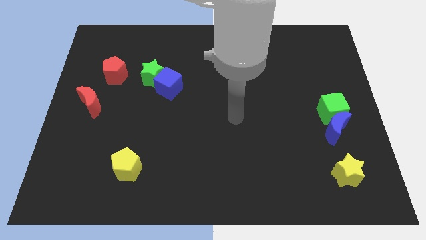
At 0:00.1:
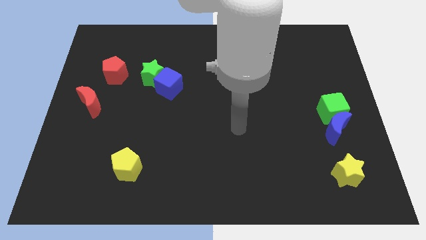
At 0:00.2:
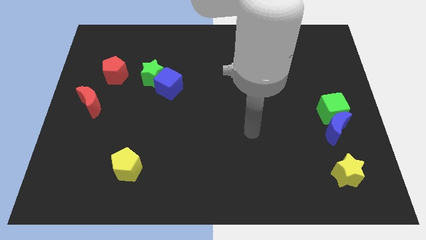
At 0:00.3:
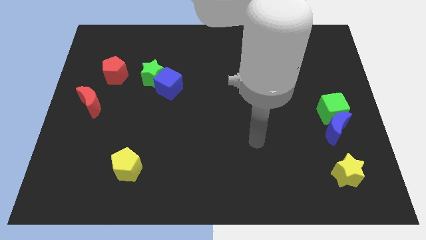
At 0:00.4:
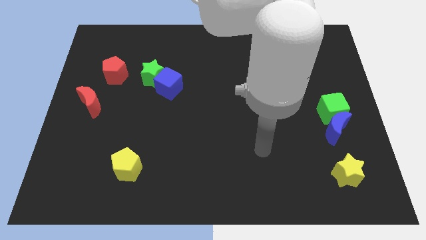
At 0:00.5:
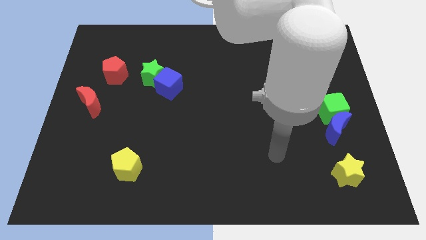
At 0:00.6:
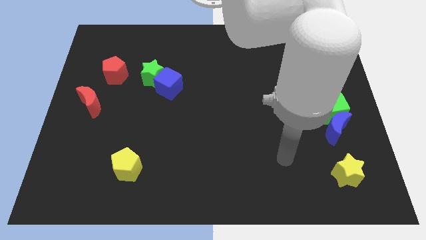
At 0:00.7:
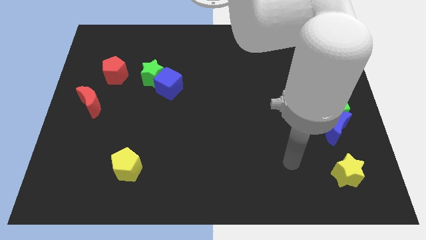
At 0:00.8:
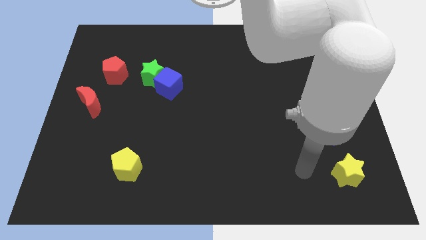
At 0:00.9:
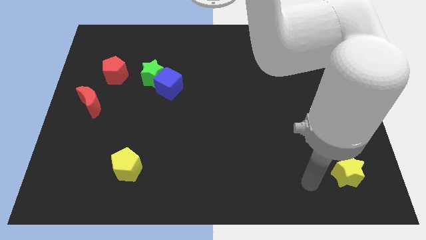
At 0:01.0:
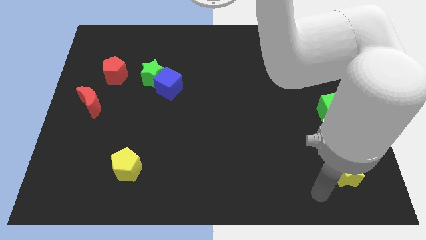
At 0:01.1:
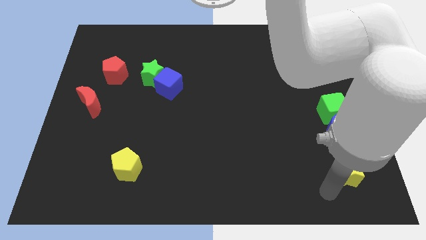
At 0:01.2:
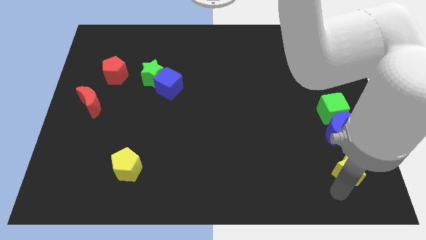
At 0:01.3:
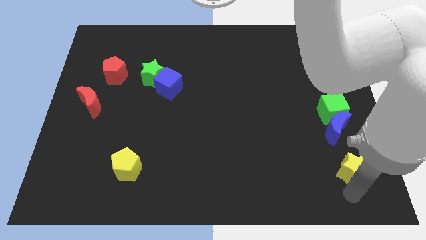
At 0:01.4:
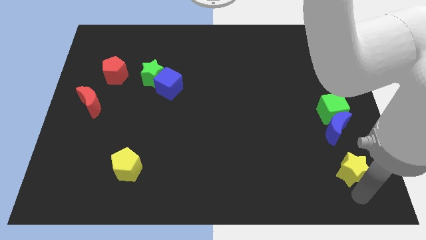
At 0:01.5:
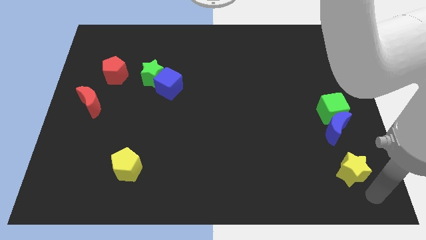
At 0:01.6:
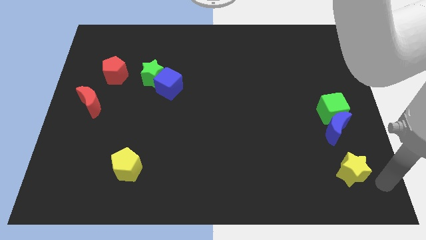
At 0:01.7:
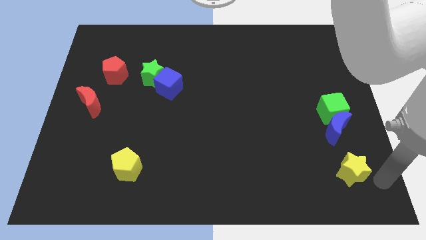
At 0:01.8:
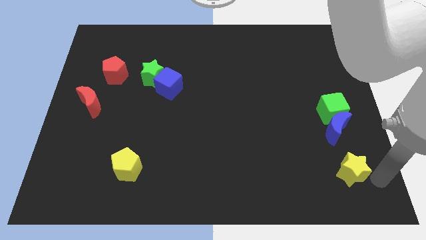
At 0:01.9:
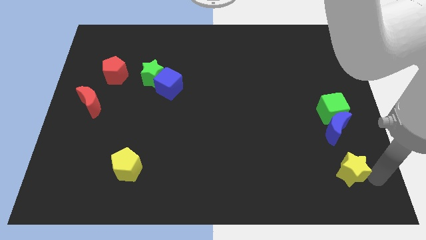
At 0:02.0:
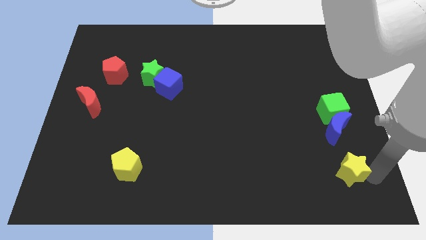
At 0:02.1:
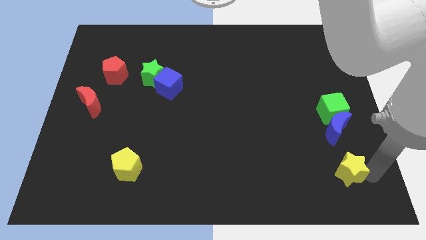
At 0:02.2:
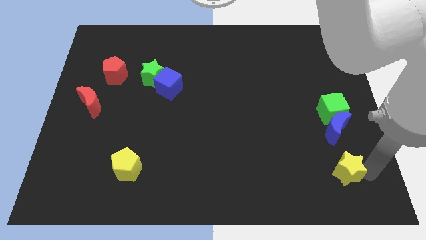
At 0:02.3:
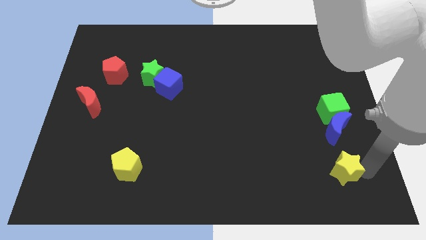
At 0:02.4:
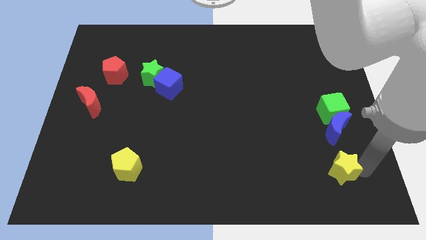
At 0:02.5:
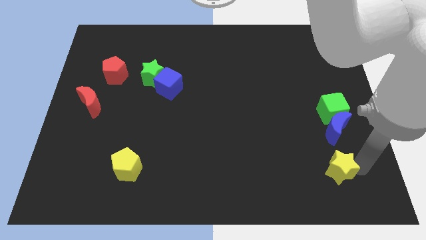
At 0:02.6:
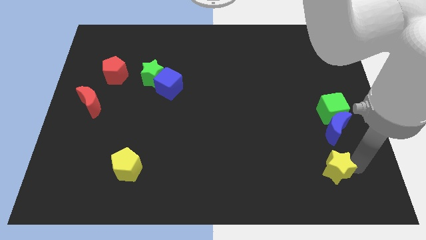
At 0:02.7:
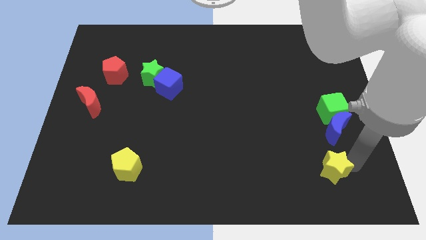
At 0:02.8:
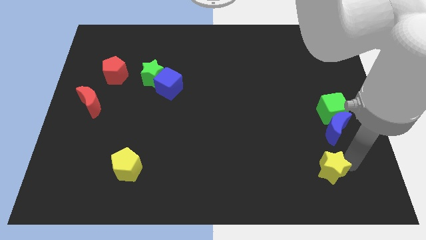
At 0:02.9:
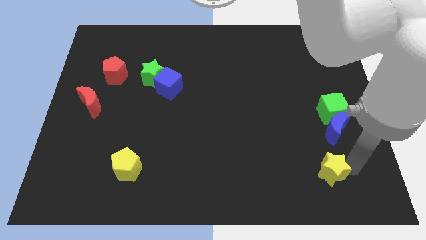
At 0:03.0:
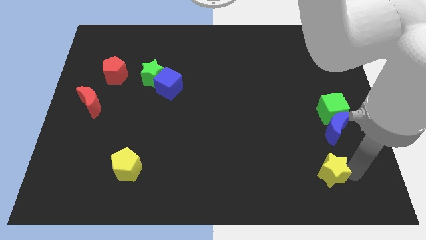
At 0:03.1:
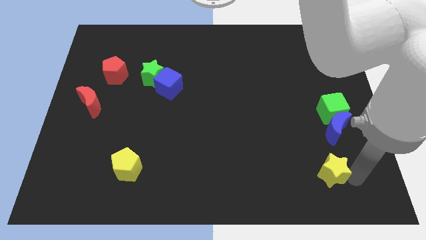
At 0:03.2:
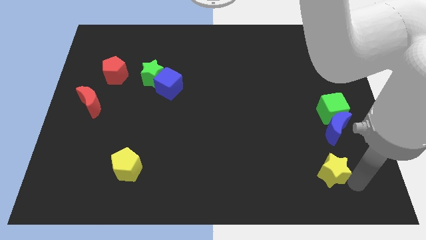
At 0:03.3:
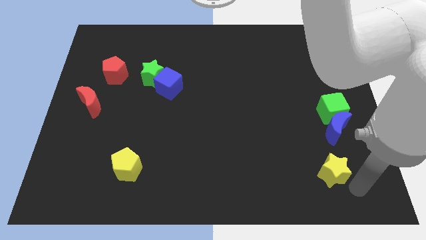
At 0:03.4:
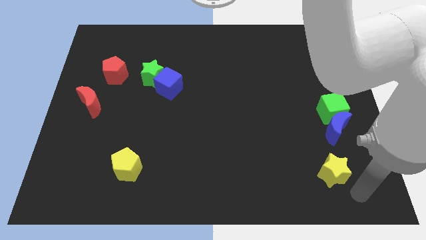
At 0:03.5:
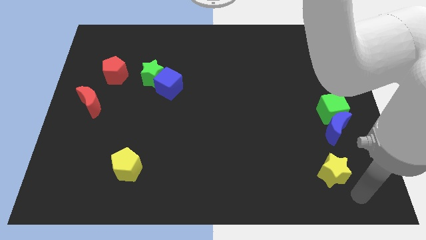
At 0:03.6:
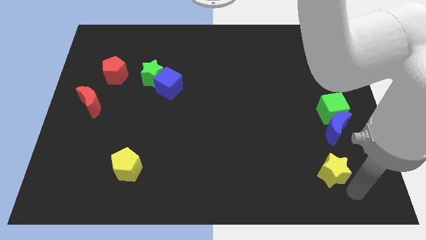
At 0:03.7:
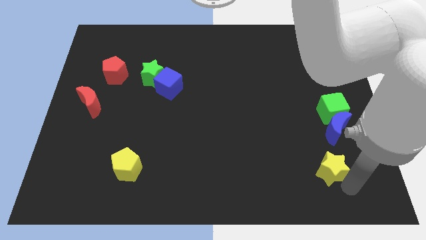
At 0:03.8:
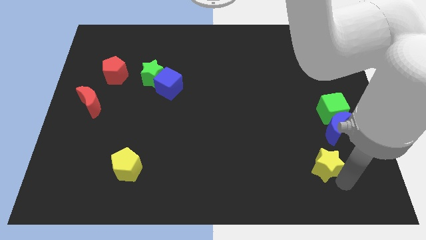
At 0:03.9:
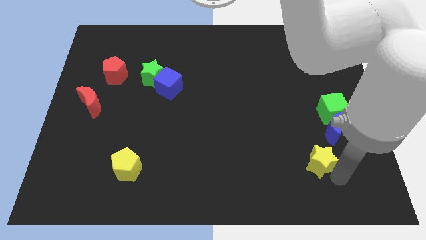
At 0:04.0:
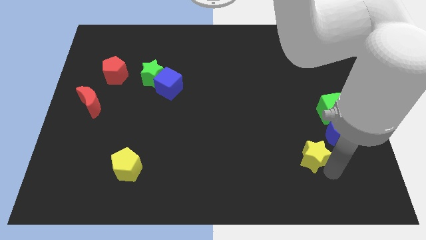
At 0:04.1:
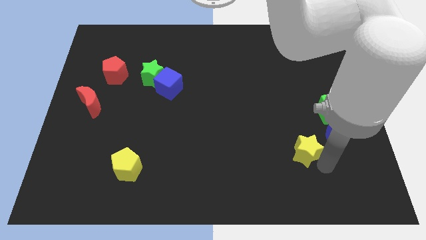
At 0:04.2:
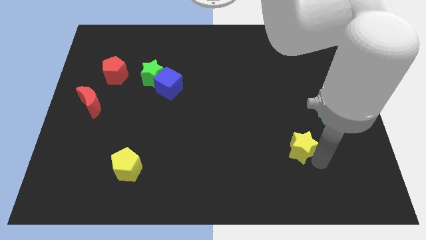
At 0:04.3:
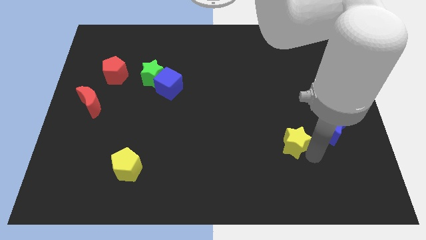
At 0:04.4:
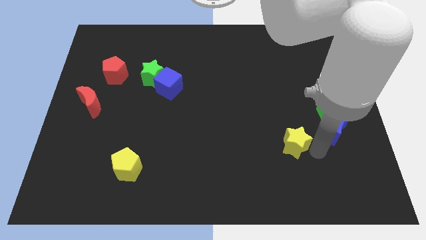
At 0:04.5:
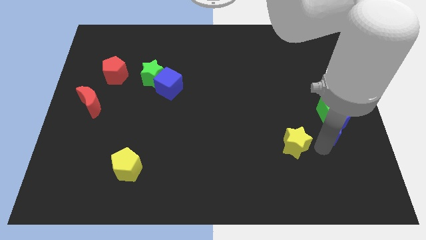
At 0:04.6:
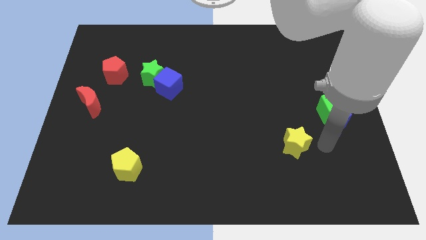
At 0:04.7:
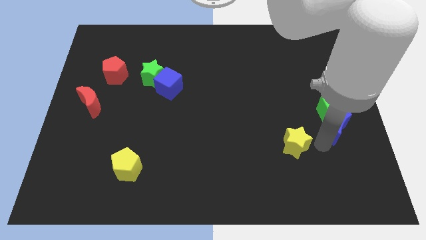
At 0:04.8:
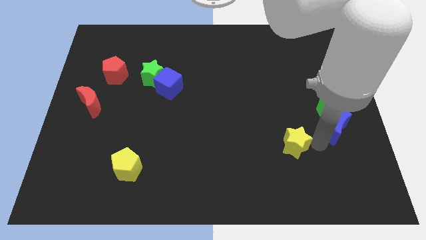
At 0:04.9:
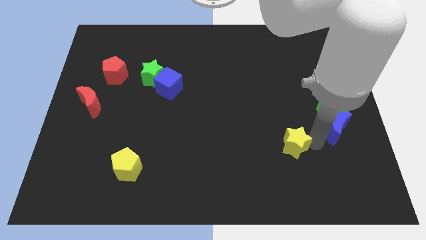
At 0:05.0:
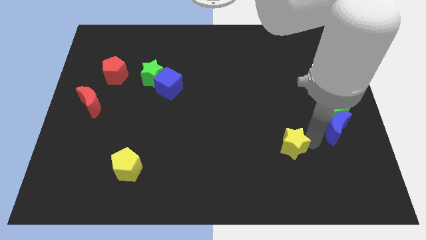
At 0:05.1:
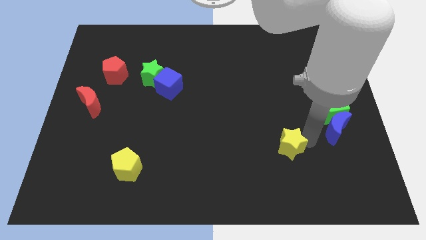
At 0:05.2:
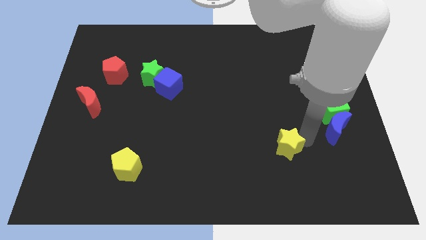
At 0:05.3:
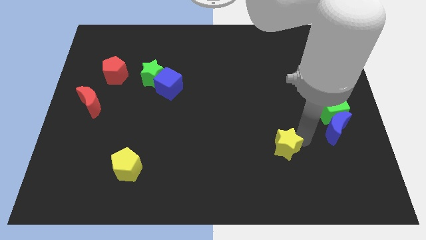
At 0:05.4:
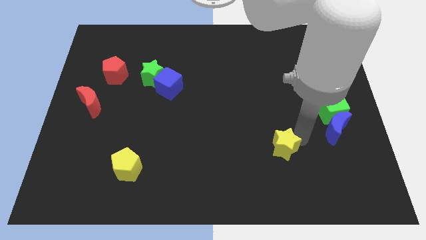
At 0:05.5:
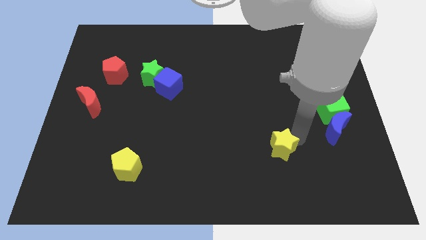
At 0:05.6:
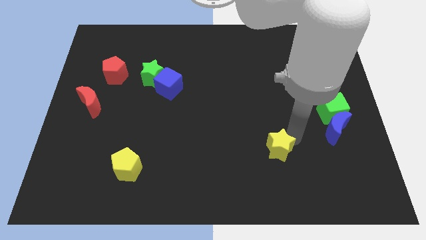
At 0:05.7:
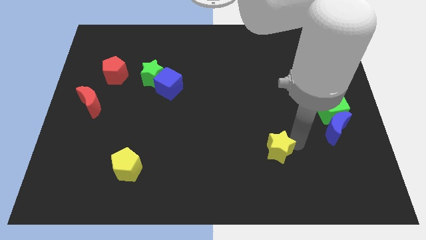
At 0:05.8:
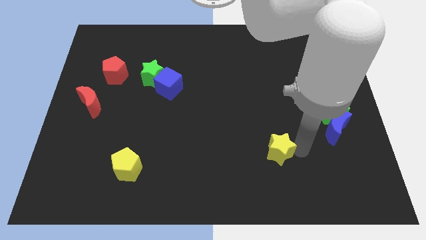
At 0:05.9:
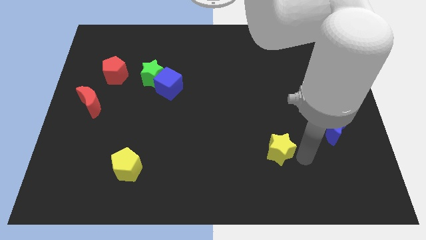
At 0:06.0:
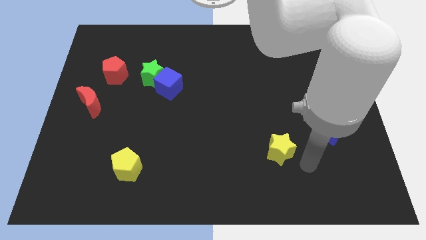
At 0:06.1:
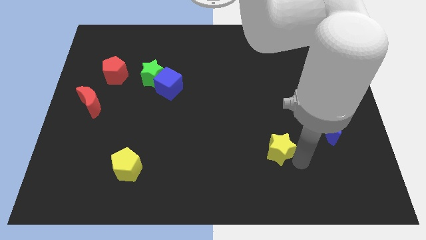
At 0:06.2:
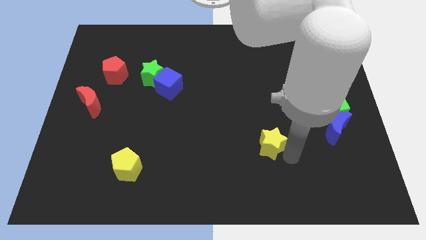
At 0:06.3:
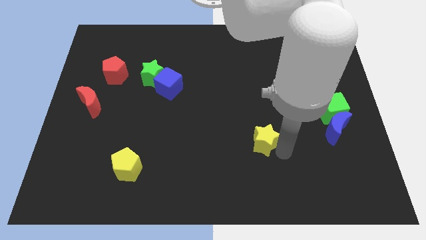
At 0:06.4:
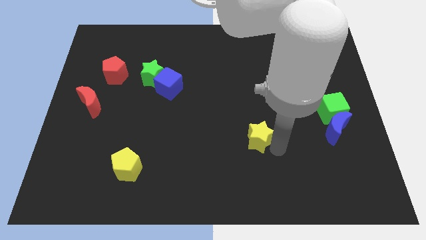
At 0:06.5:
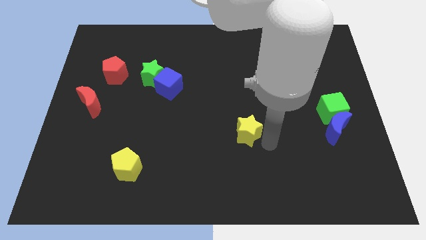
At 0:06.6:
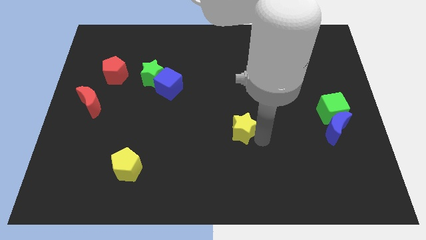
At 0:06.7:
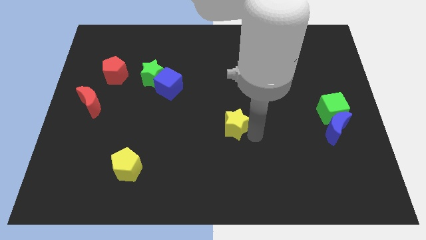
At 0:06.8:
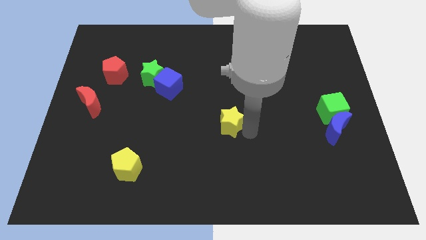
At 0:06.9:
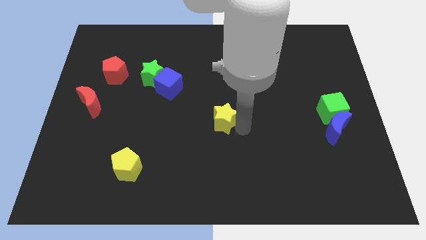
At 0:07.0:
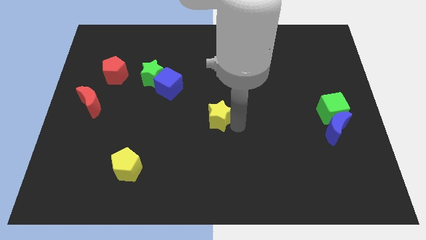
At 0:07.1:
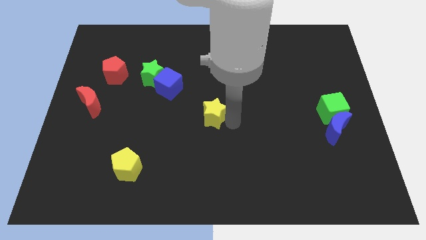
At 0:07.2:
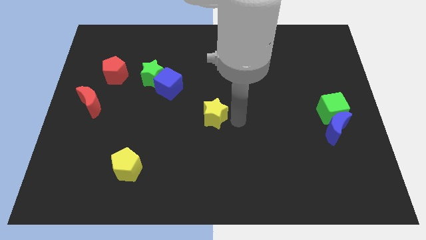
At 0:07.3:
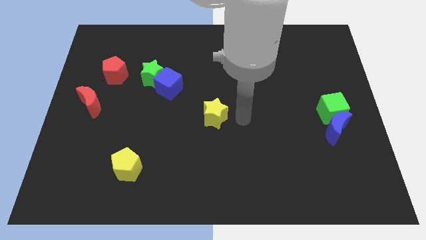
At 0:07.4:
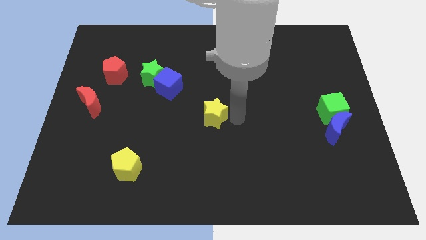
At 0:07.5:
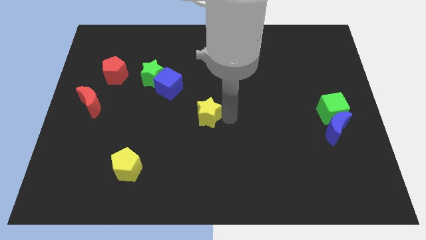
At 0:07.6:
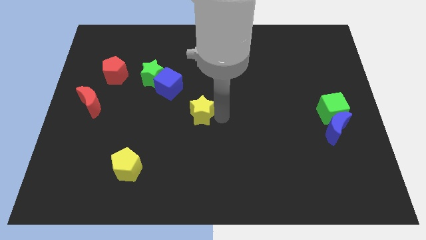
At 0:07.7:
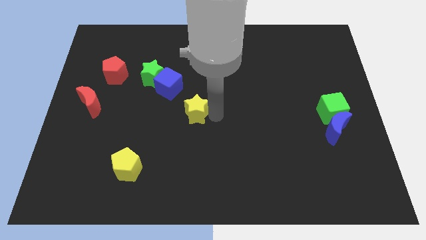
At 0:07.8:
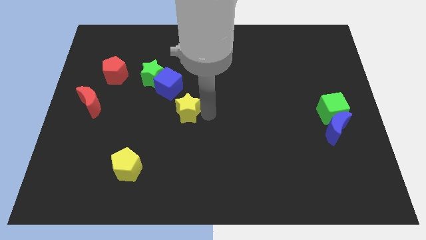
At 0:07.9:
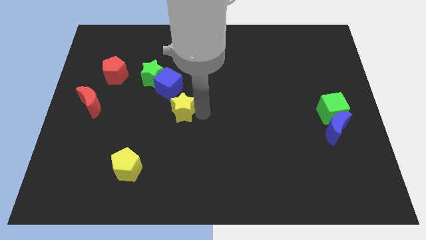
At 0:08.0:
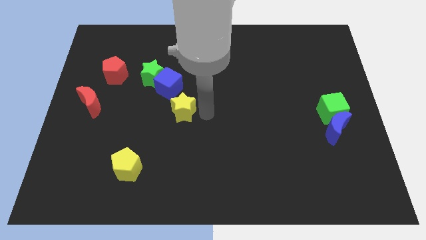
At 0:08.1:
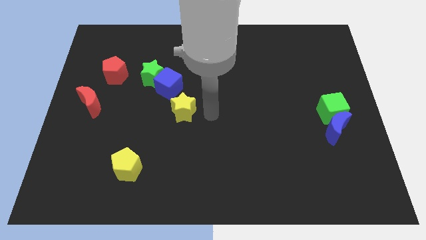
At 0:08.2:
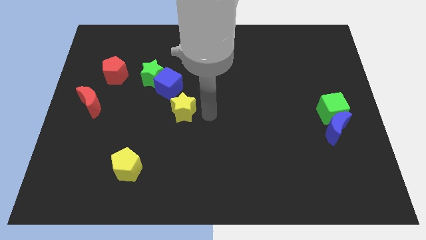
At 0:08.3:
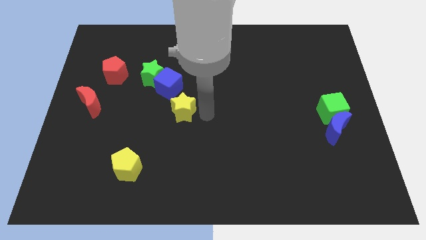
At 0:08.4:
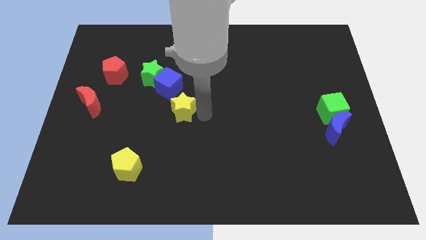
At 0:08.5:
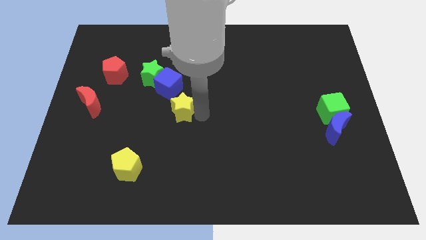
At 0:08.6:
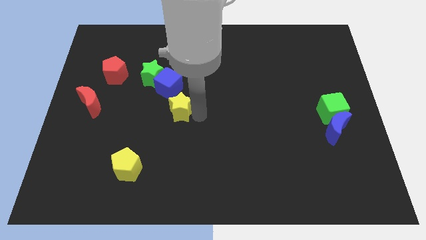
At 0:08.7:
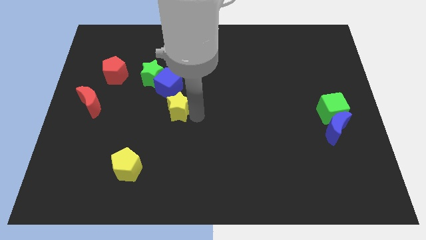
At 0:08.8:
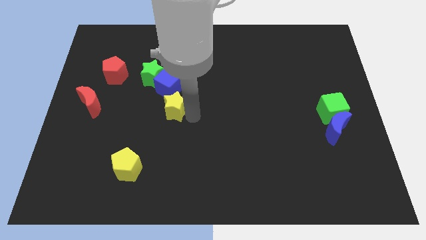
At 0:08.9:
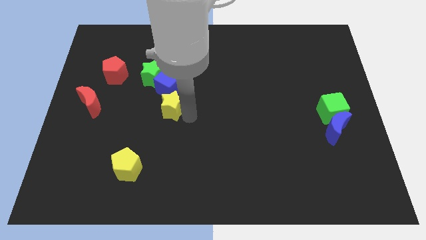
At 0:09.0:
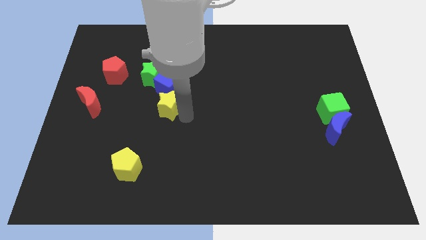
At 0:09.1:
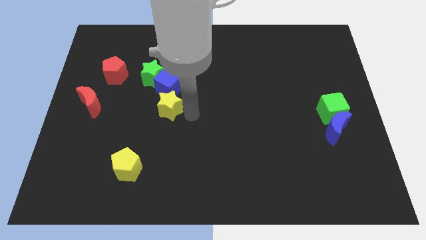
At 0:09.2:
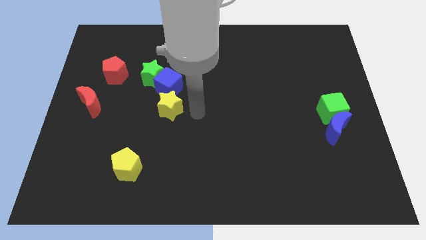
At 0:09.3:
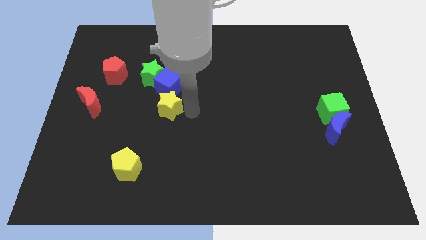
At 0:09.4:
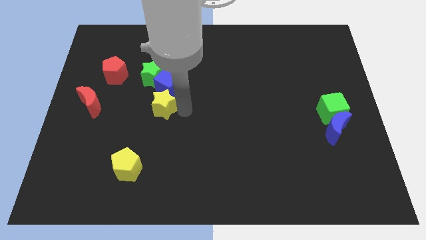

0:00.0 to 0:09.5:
push the yellow star to the bottom left of the blue cube
